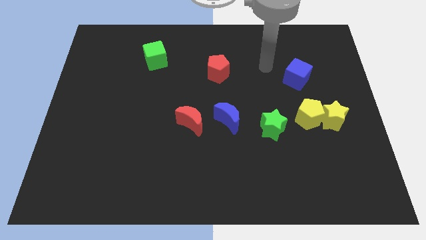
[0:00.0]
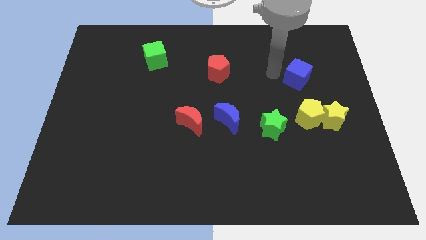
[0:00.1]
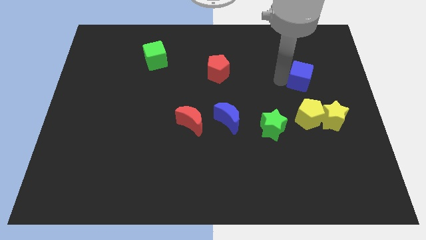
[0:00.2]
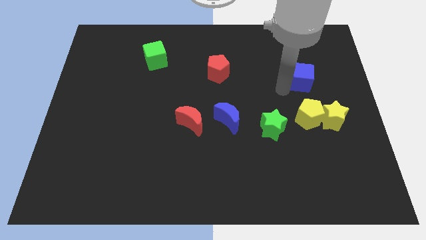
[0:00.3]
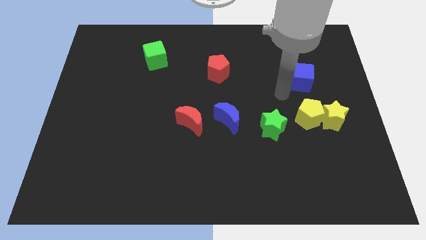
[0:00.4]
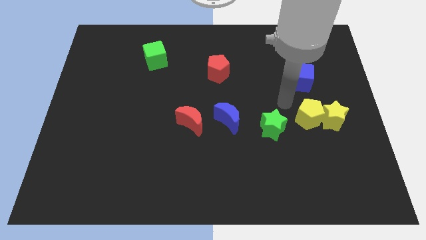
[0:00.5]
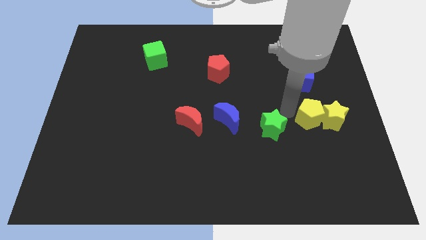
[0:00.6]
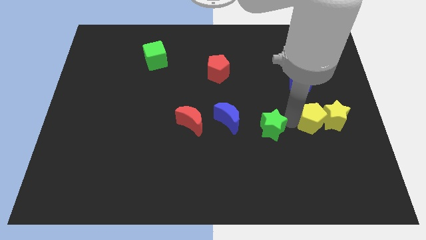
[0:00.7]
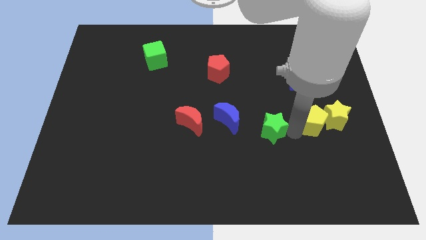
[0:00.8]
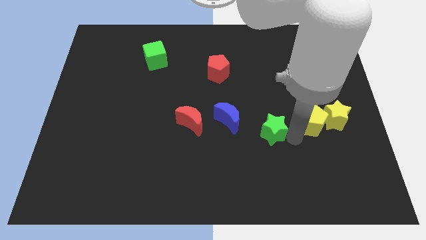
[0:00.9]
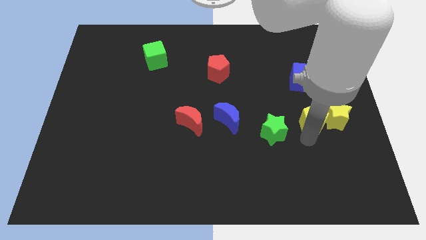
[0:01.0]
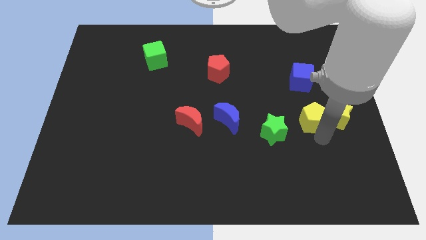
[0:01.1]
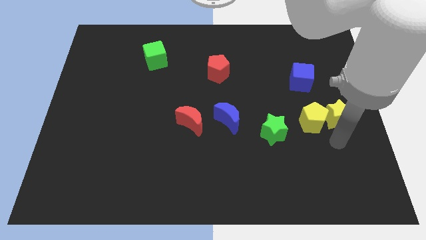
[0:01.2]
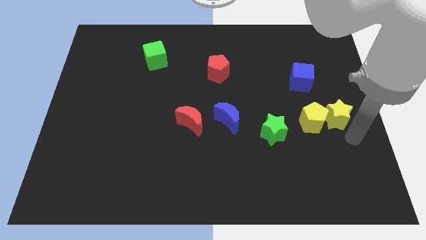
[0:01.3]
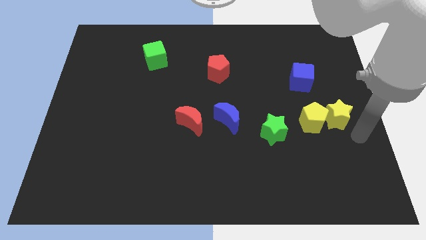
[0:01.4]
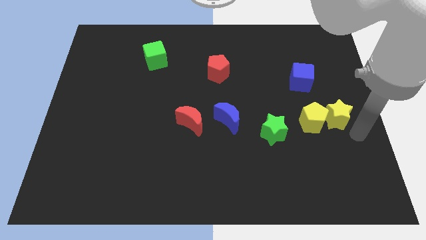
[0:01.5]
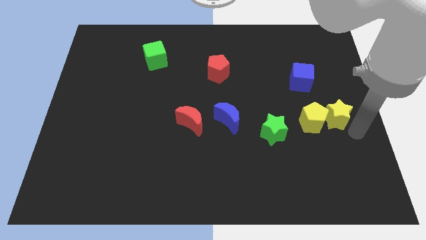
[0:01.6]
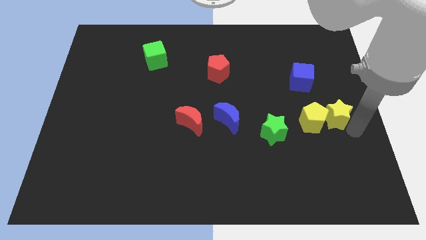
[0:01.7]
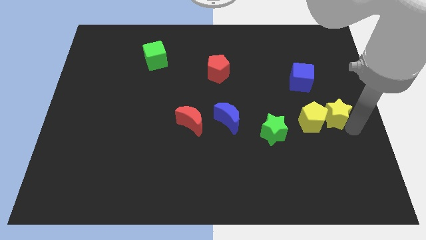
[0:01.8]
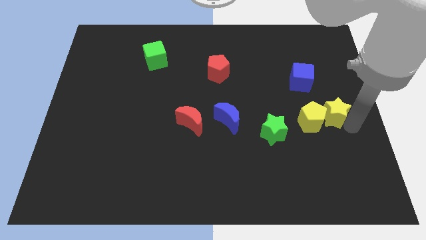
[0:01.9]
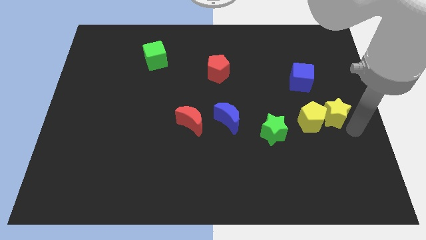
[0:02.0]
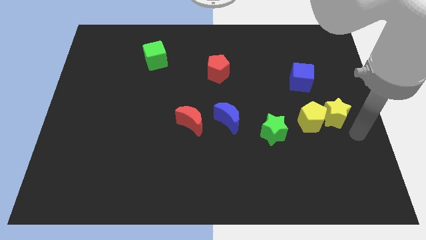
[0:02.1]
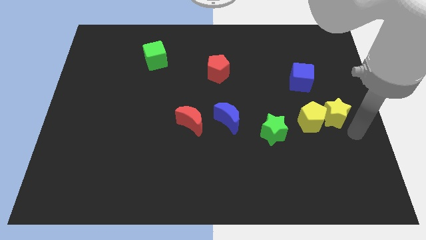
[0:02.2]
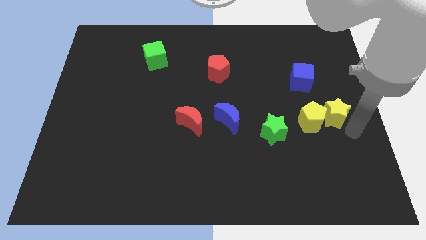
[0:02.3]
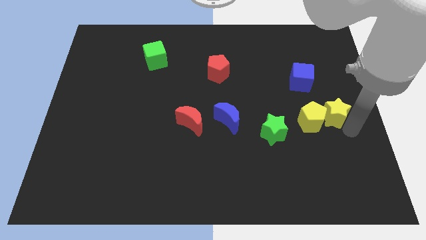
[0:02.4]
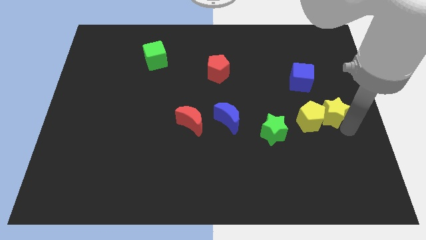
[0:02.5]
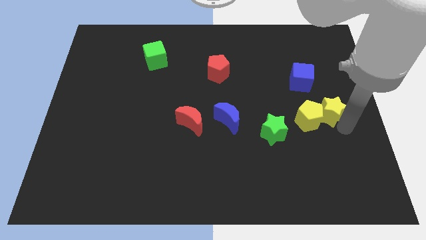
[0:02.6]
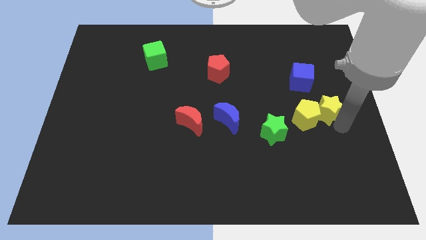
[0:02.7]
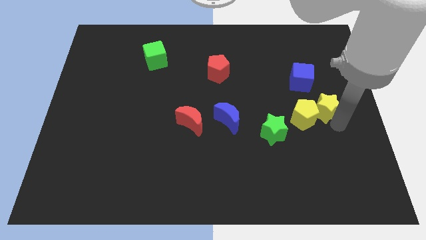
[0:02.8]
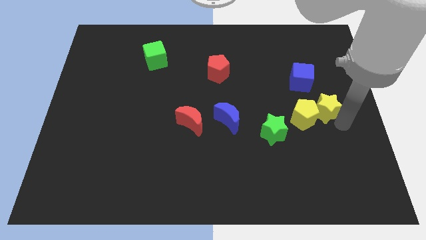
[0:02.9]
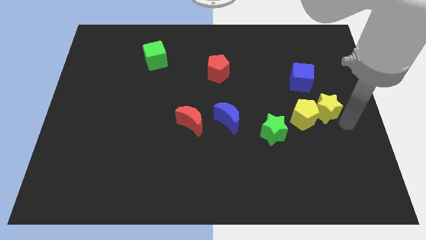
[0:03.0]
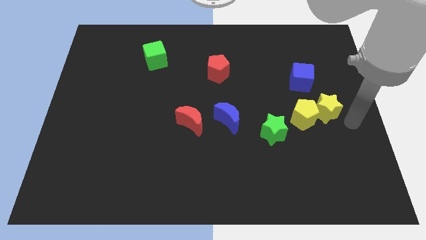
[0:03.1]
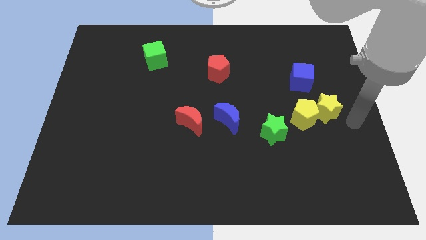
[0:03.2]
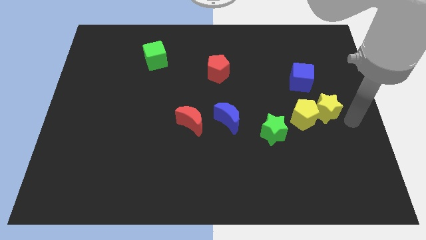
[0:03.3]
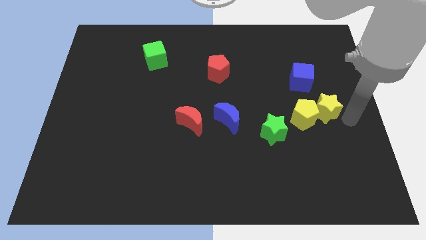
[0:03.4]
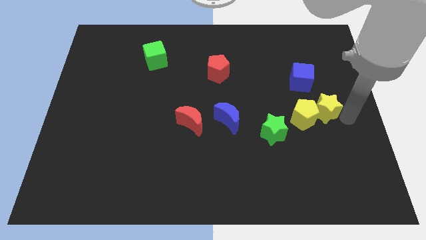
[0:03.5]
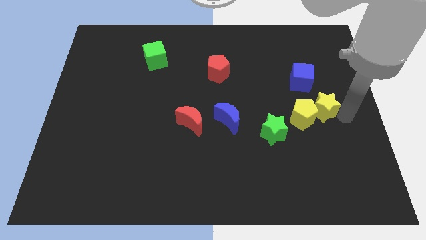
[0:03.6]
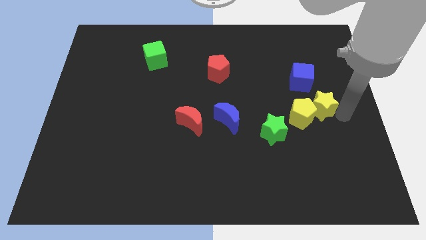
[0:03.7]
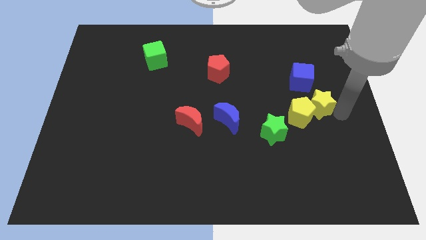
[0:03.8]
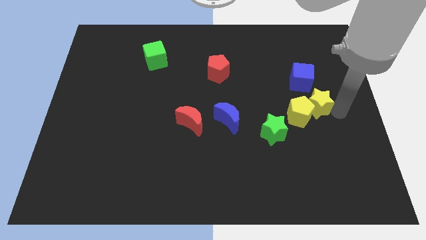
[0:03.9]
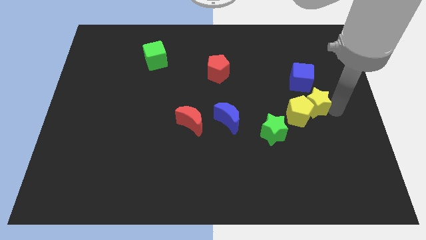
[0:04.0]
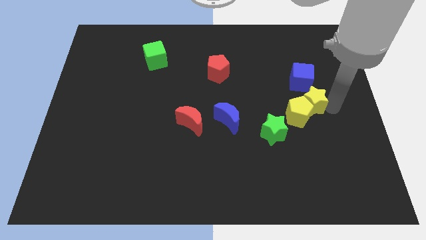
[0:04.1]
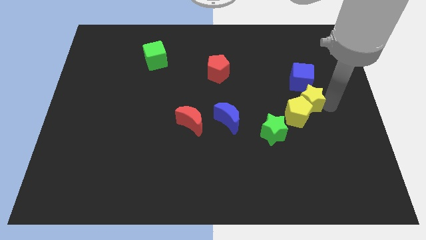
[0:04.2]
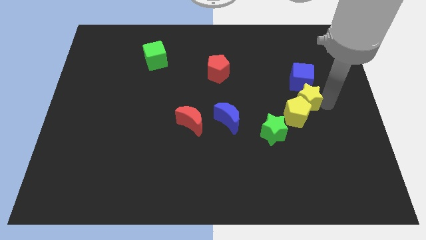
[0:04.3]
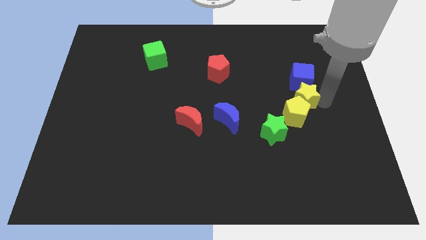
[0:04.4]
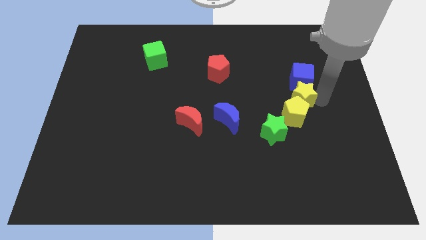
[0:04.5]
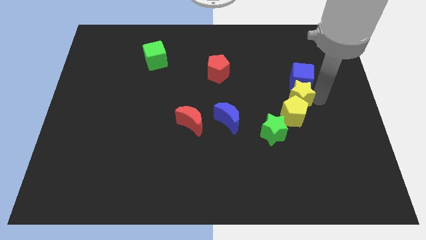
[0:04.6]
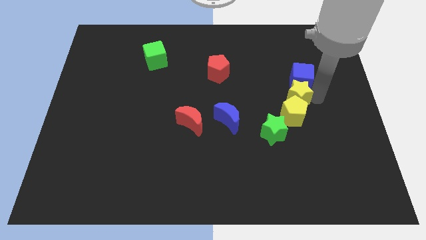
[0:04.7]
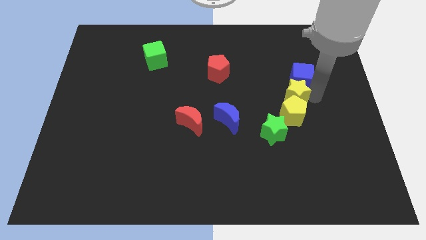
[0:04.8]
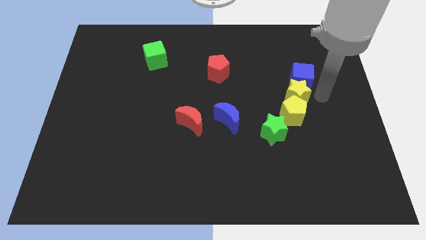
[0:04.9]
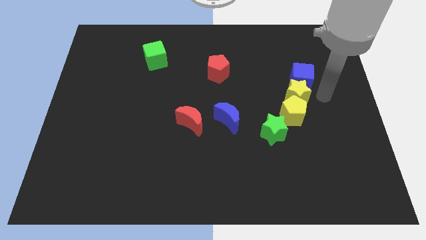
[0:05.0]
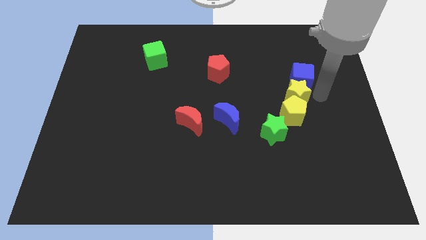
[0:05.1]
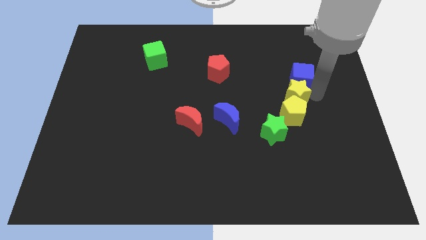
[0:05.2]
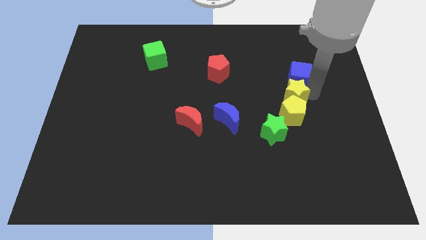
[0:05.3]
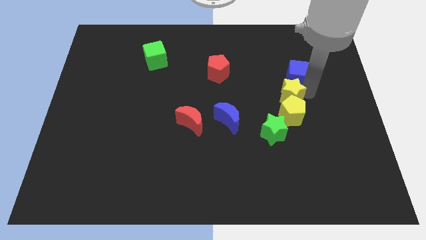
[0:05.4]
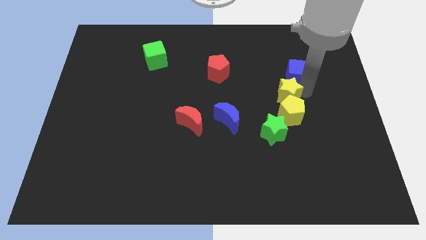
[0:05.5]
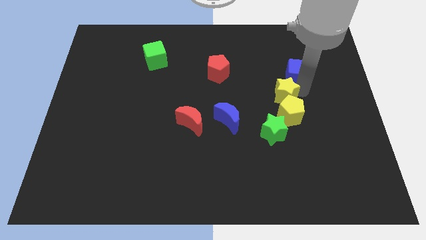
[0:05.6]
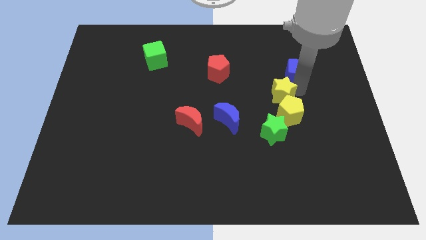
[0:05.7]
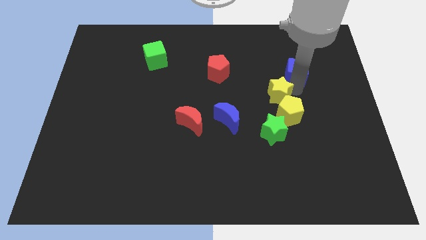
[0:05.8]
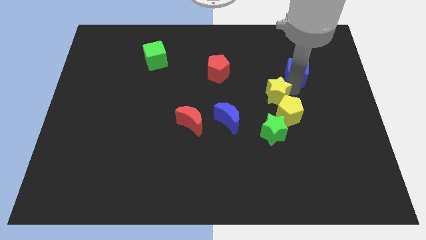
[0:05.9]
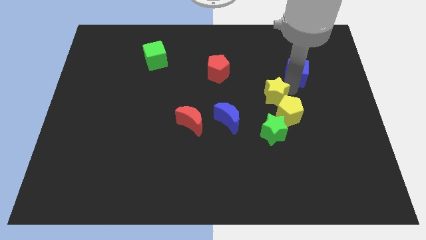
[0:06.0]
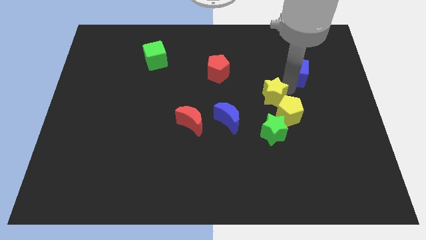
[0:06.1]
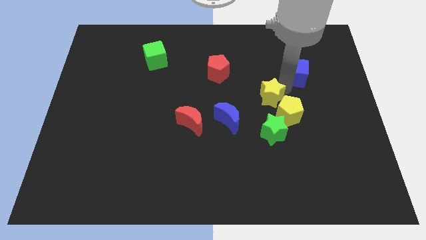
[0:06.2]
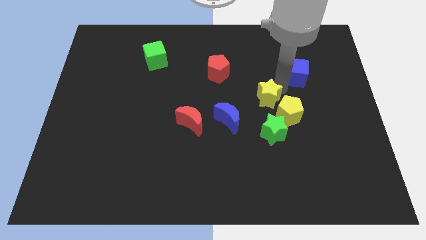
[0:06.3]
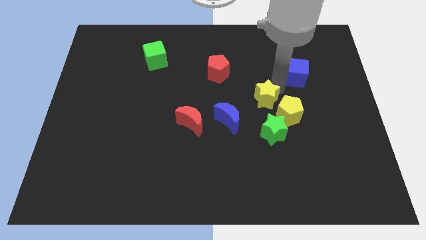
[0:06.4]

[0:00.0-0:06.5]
push the yellow star to the middle of the board
